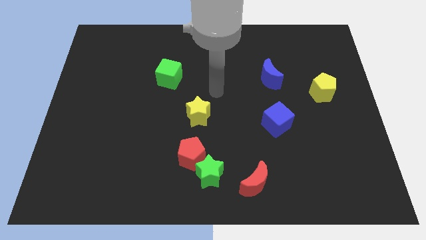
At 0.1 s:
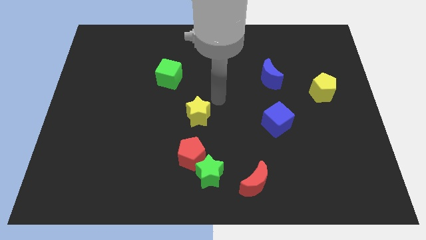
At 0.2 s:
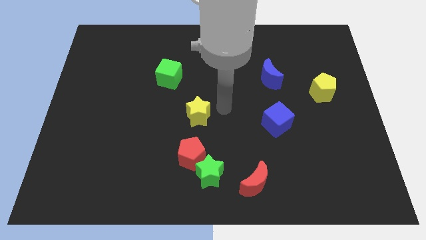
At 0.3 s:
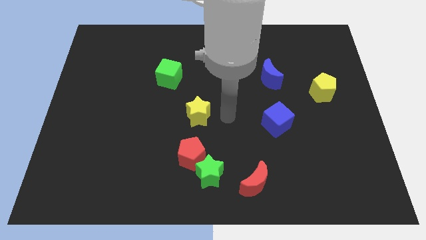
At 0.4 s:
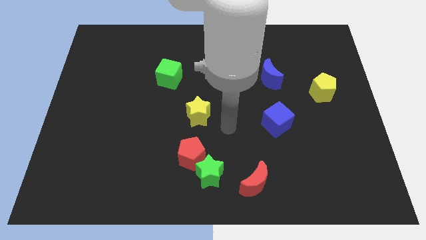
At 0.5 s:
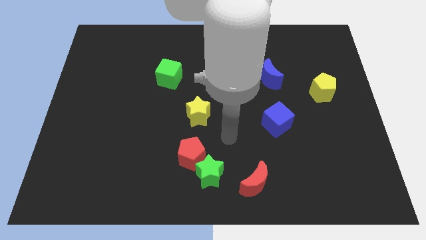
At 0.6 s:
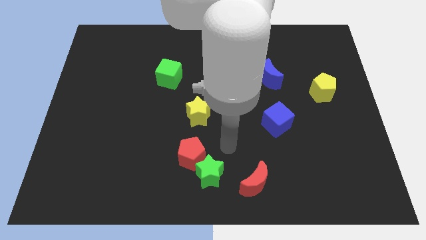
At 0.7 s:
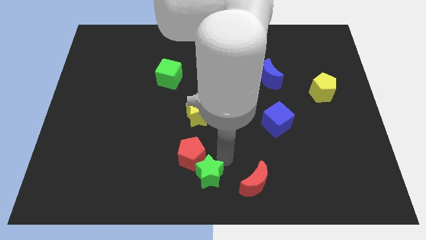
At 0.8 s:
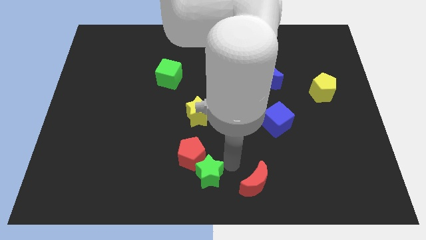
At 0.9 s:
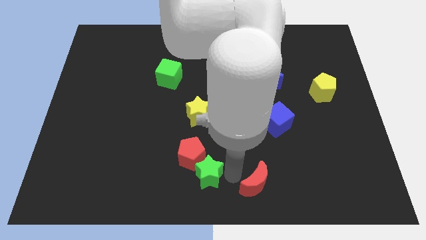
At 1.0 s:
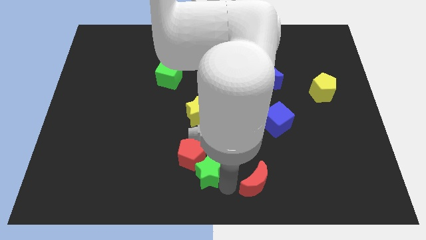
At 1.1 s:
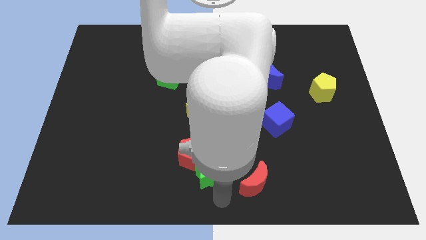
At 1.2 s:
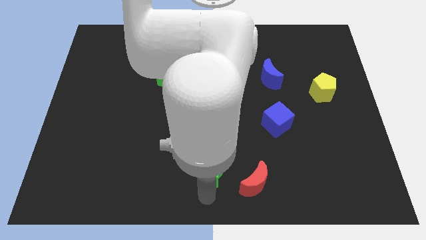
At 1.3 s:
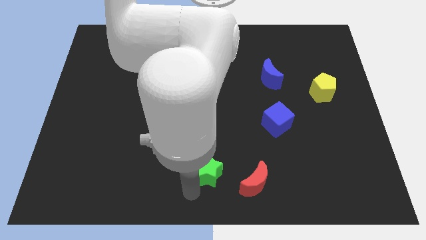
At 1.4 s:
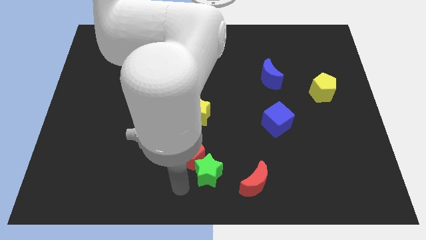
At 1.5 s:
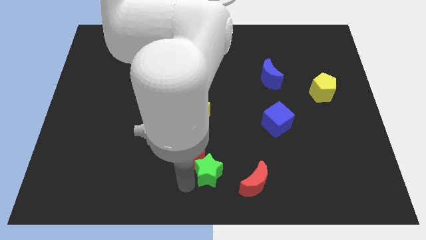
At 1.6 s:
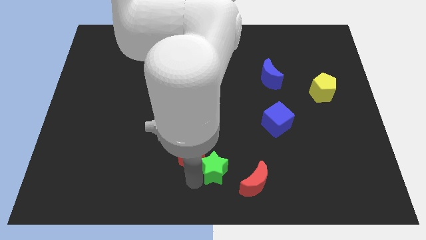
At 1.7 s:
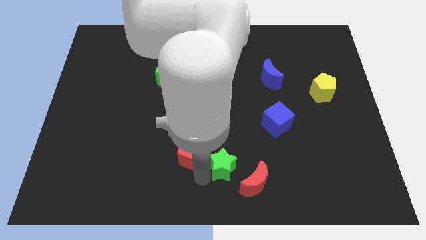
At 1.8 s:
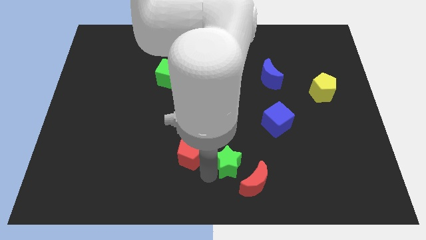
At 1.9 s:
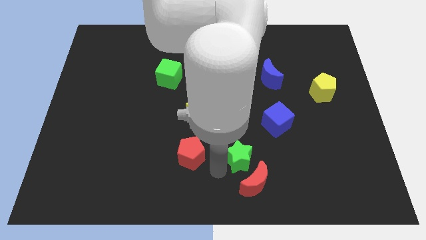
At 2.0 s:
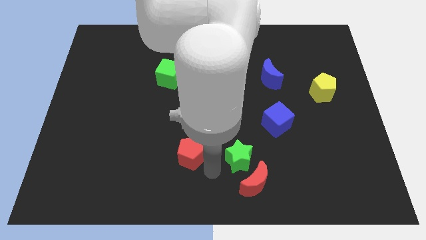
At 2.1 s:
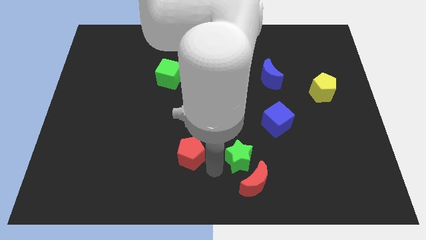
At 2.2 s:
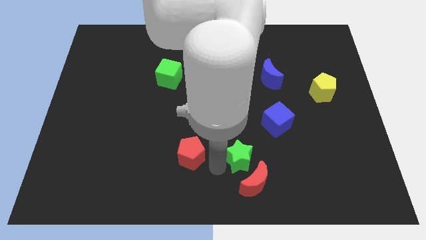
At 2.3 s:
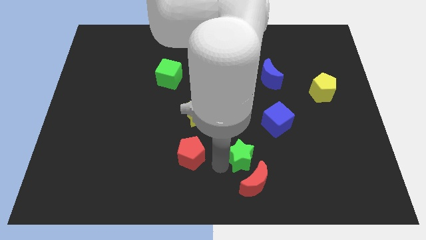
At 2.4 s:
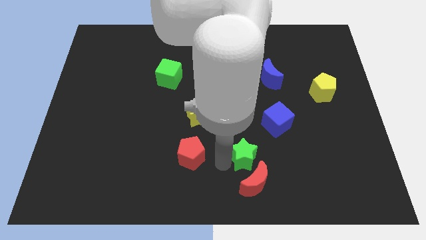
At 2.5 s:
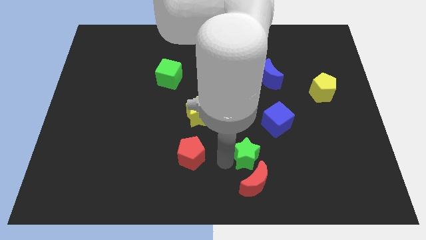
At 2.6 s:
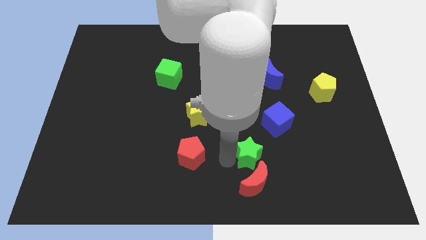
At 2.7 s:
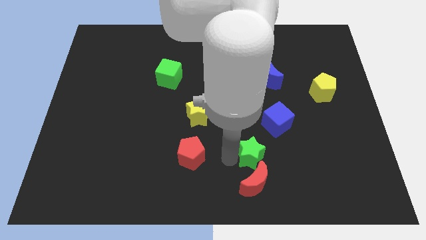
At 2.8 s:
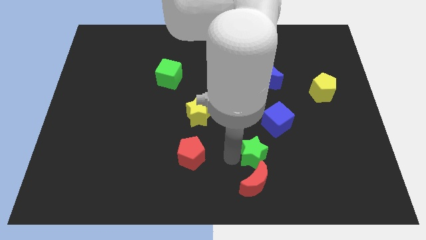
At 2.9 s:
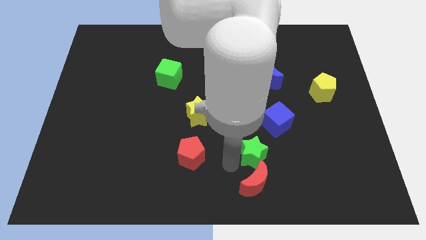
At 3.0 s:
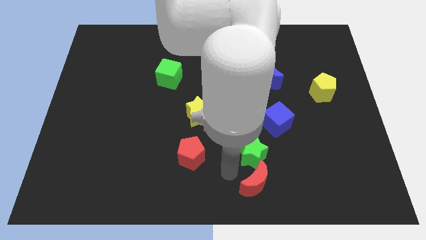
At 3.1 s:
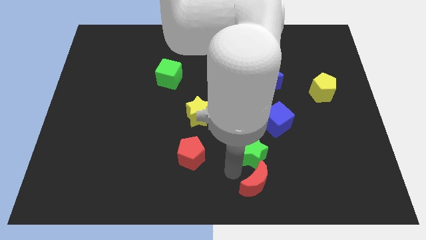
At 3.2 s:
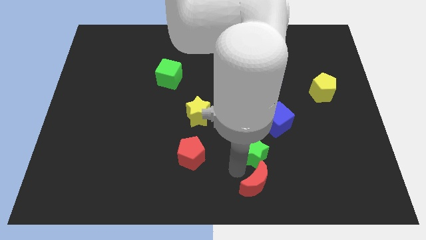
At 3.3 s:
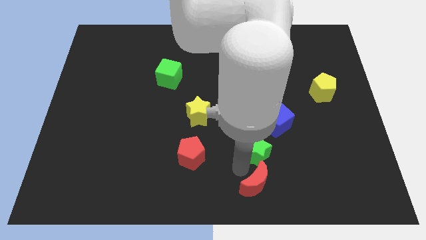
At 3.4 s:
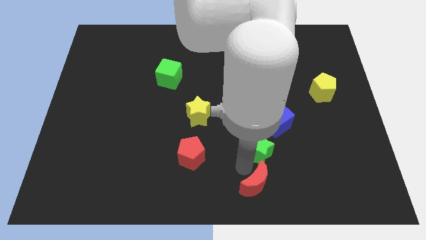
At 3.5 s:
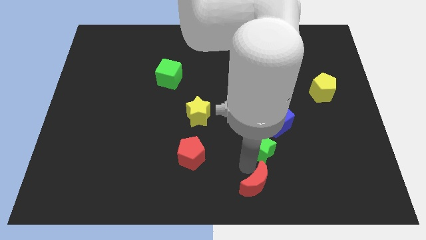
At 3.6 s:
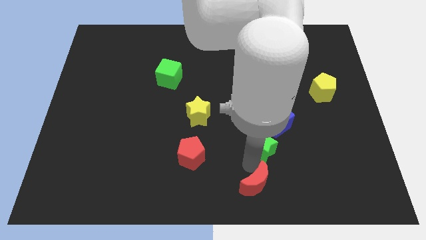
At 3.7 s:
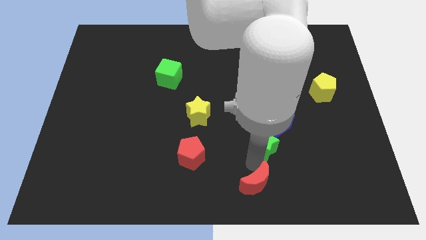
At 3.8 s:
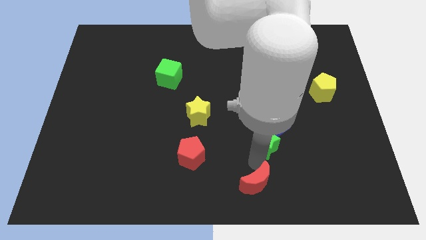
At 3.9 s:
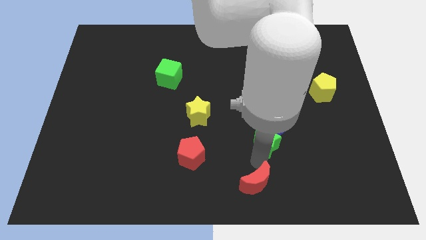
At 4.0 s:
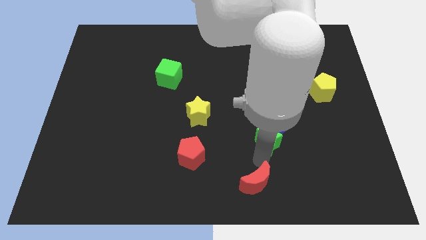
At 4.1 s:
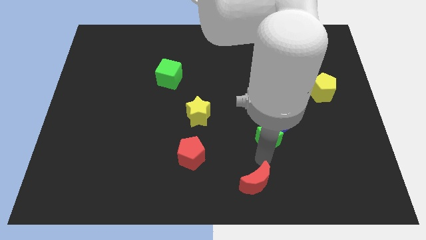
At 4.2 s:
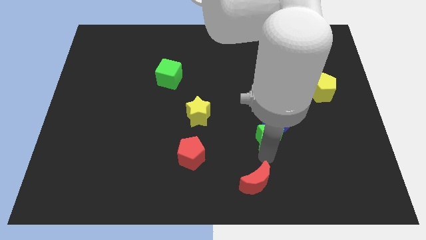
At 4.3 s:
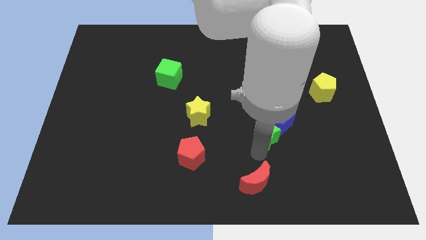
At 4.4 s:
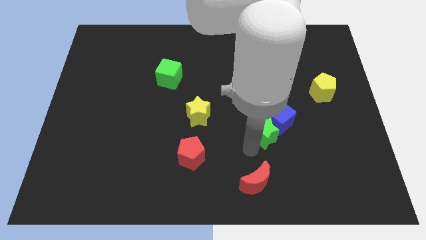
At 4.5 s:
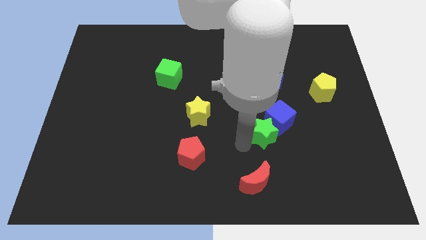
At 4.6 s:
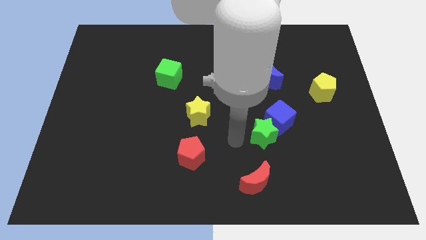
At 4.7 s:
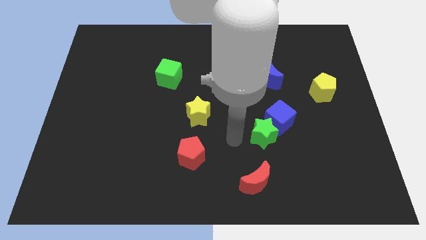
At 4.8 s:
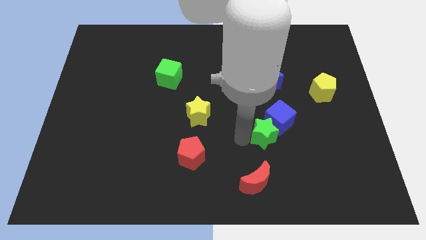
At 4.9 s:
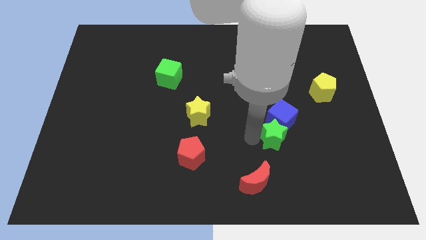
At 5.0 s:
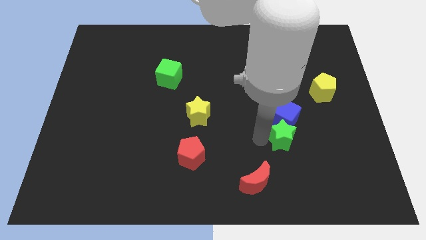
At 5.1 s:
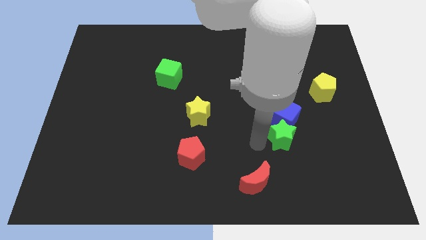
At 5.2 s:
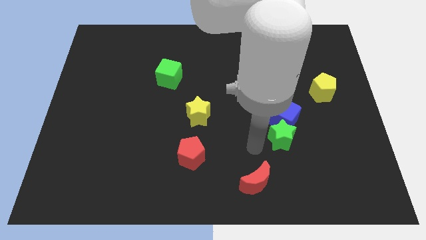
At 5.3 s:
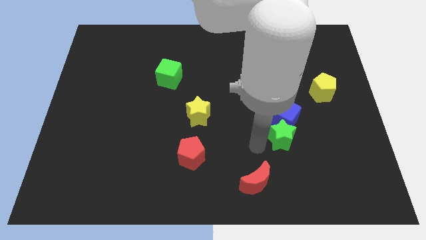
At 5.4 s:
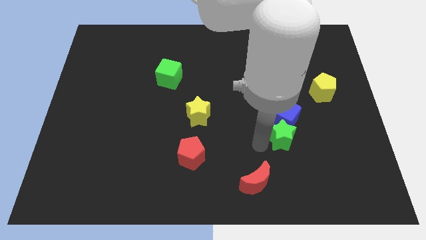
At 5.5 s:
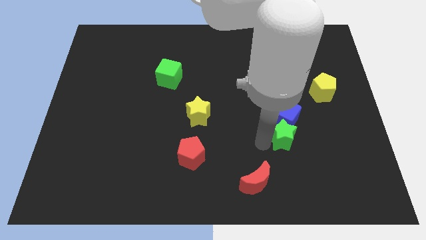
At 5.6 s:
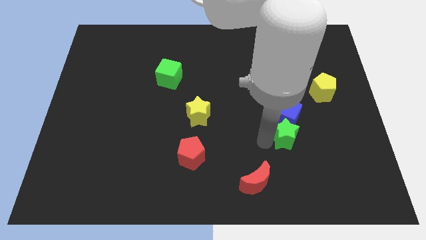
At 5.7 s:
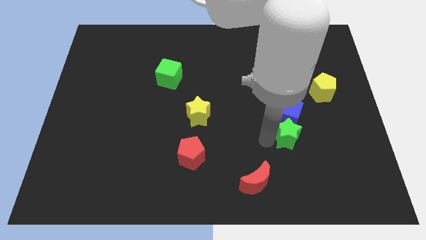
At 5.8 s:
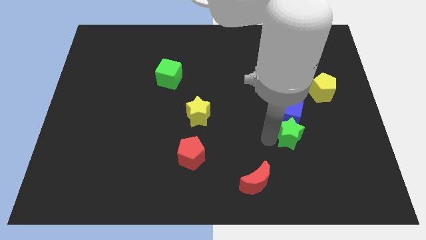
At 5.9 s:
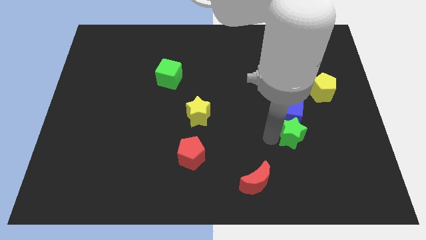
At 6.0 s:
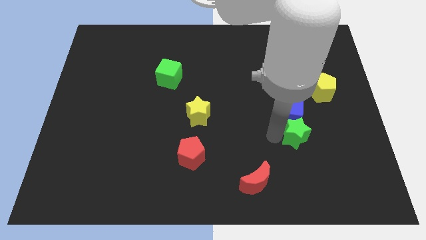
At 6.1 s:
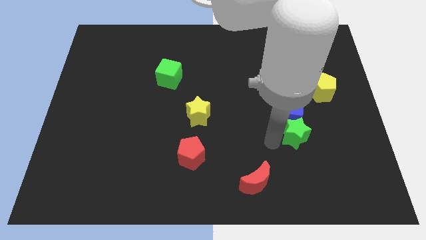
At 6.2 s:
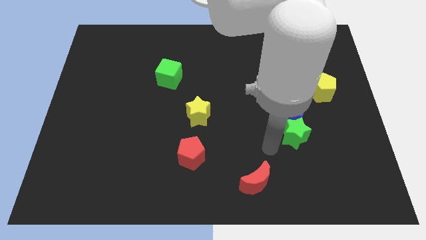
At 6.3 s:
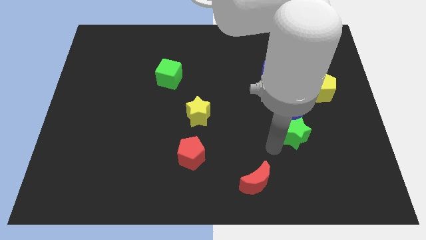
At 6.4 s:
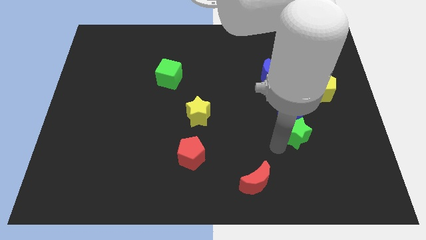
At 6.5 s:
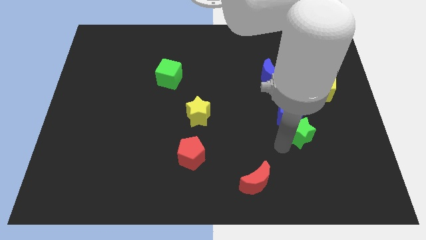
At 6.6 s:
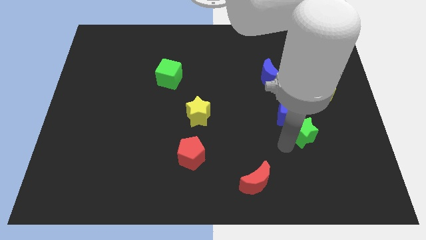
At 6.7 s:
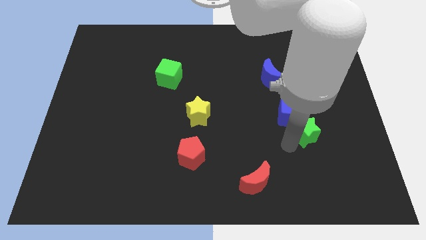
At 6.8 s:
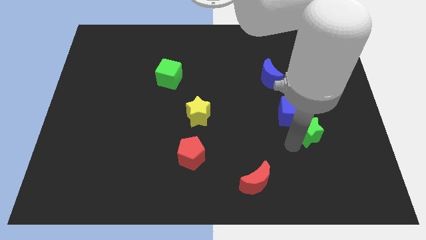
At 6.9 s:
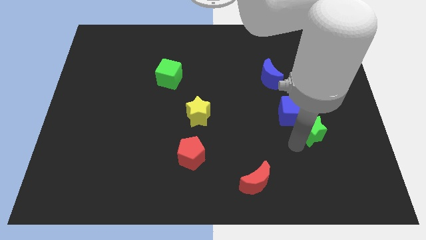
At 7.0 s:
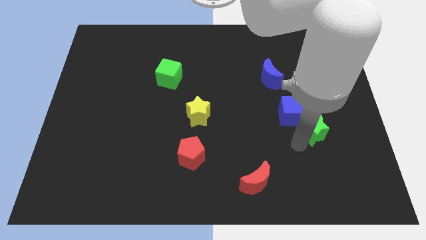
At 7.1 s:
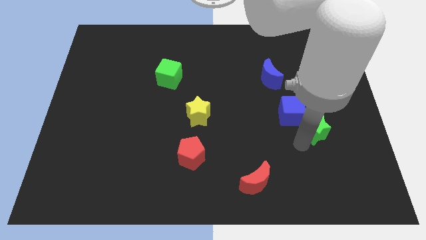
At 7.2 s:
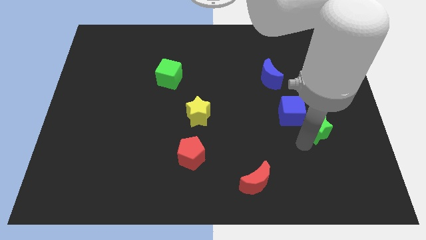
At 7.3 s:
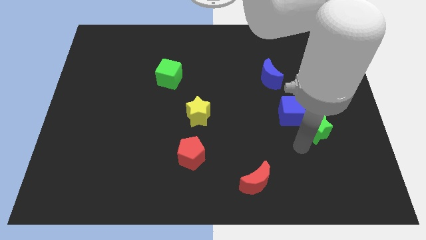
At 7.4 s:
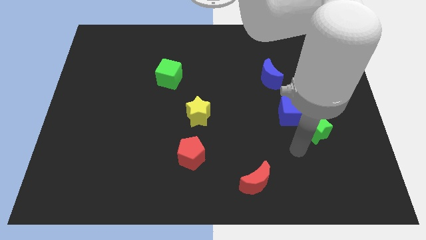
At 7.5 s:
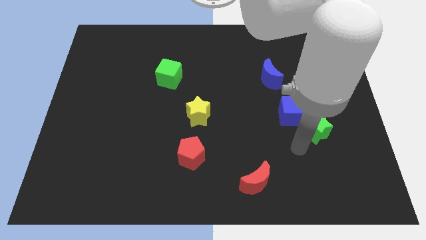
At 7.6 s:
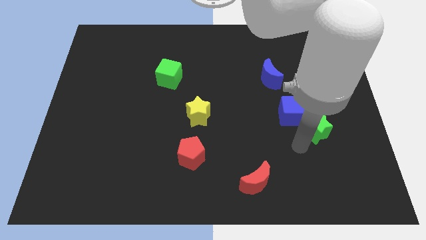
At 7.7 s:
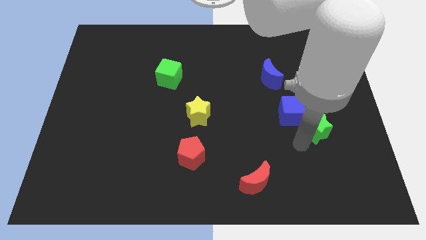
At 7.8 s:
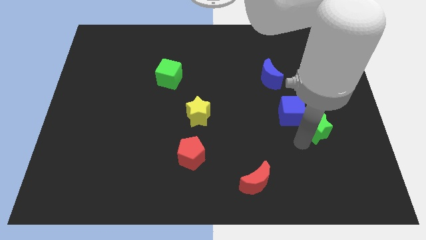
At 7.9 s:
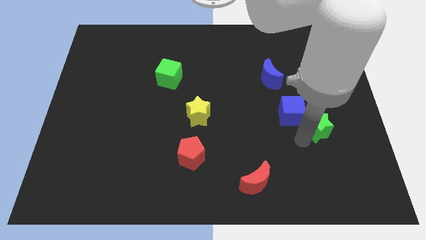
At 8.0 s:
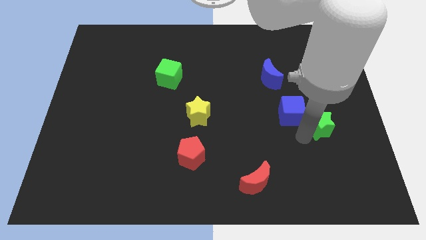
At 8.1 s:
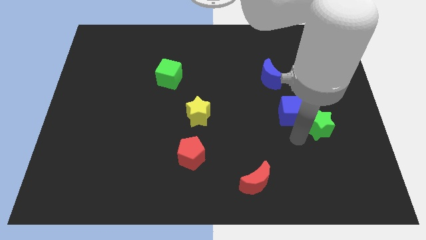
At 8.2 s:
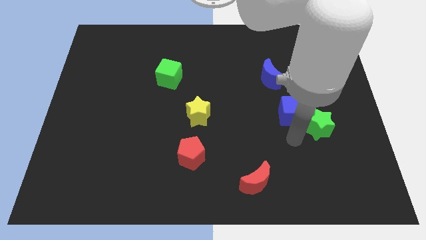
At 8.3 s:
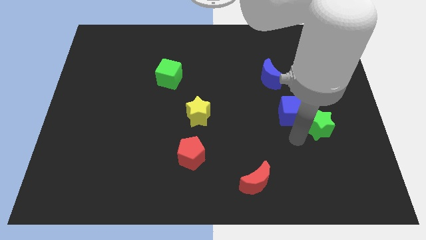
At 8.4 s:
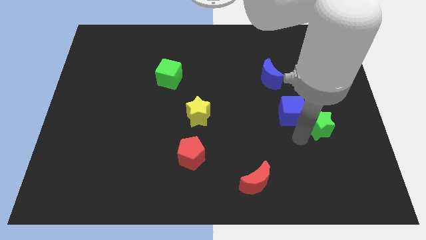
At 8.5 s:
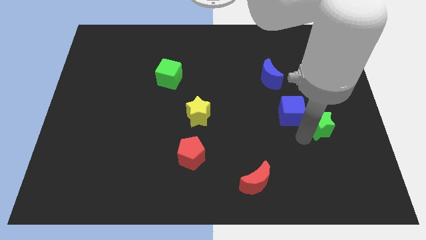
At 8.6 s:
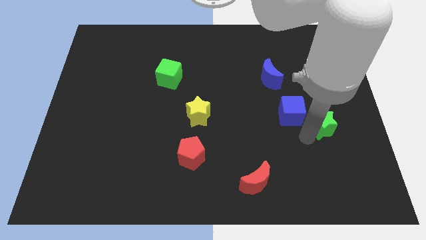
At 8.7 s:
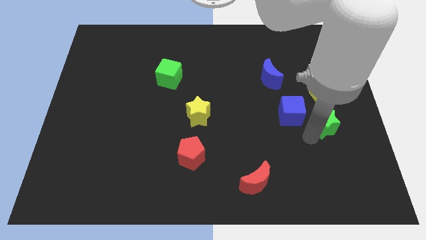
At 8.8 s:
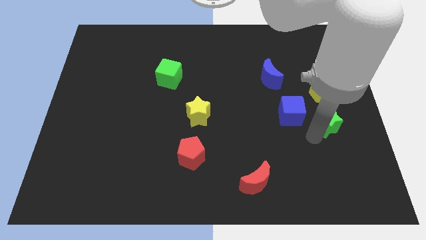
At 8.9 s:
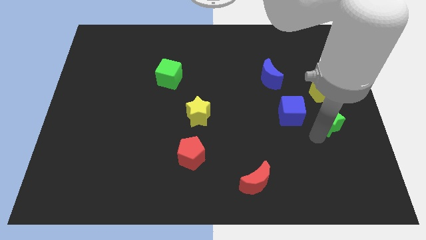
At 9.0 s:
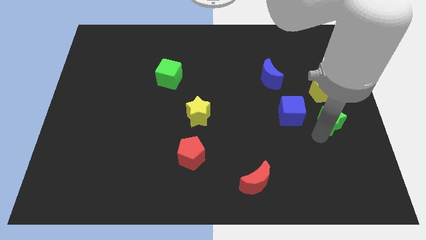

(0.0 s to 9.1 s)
push the green star to the center right
